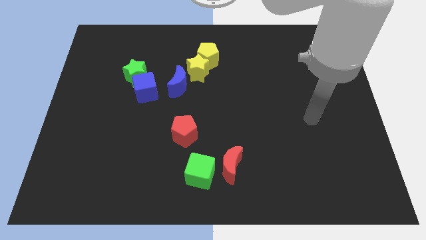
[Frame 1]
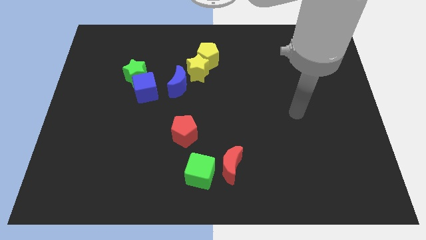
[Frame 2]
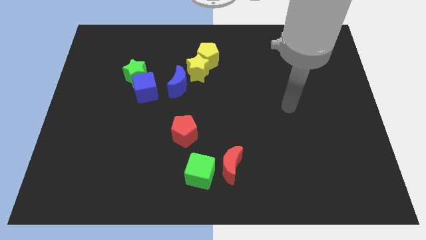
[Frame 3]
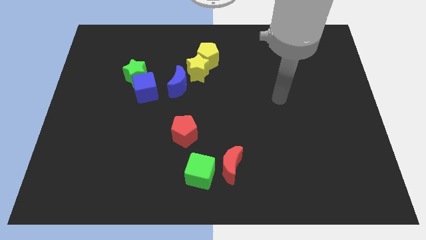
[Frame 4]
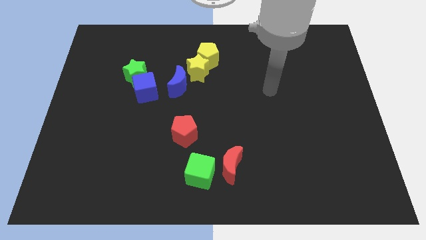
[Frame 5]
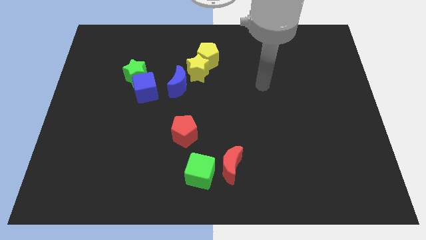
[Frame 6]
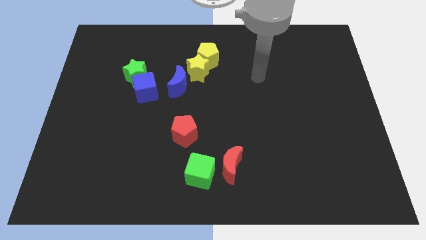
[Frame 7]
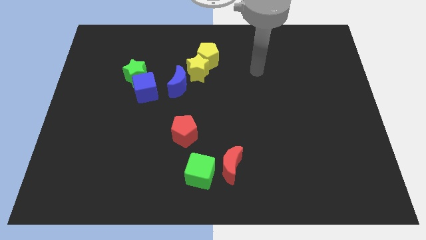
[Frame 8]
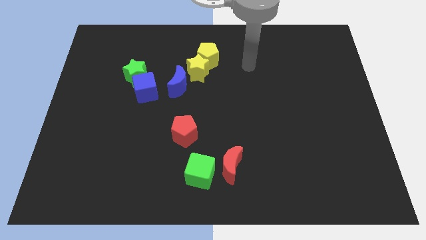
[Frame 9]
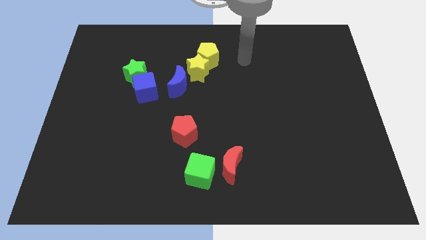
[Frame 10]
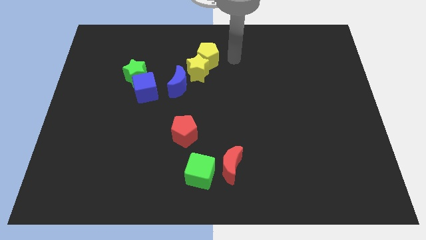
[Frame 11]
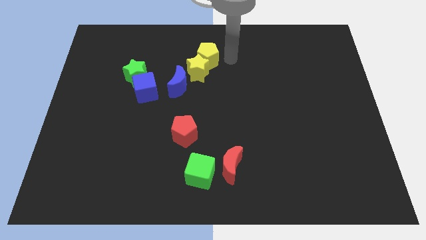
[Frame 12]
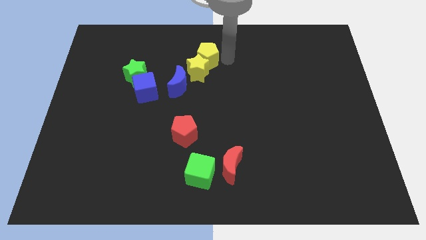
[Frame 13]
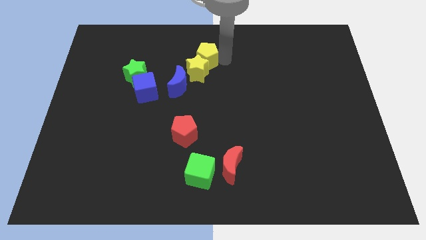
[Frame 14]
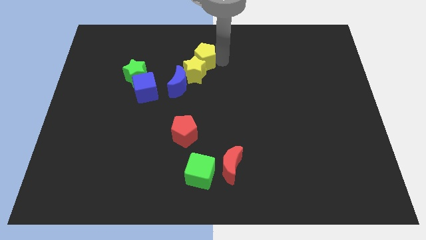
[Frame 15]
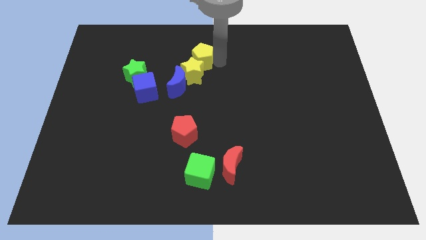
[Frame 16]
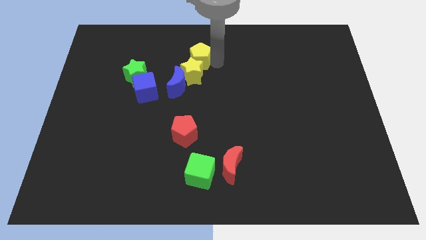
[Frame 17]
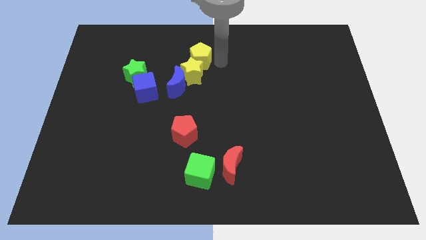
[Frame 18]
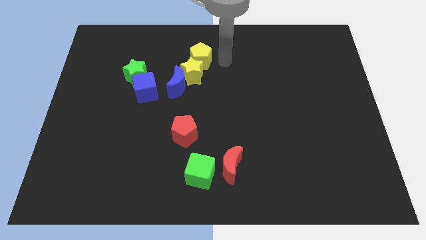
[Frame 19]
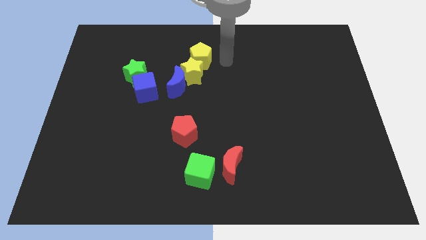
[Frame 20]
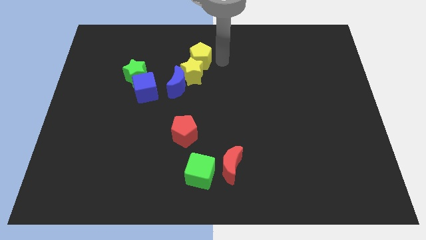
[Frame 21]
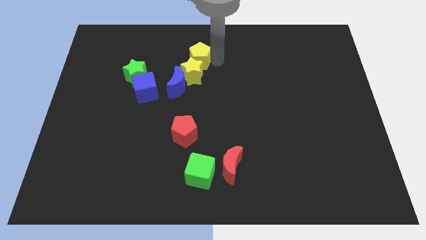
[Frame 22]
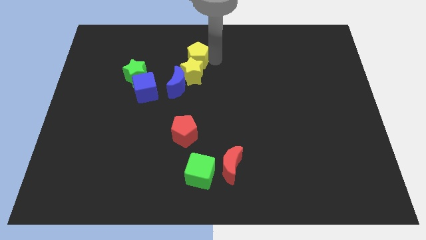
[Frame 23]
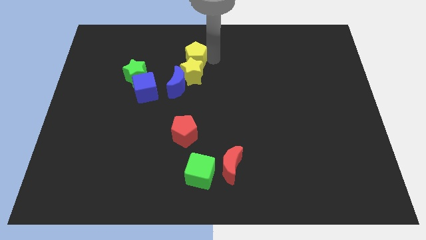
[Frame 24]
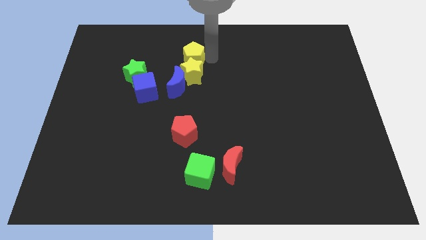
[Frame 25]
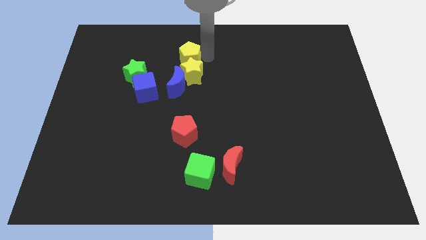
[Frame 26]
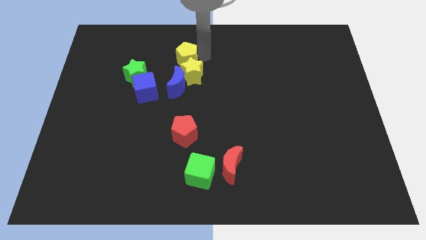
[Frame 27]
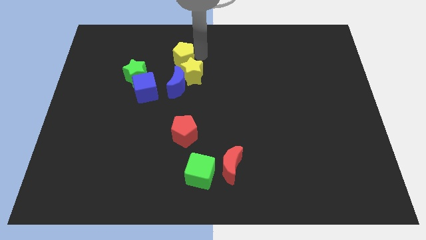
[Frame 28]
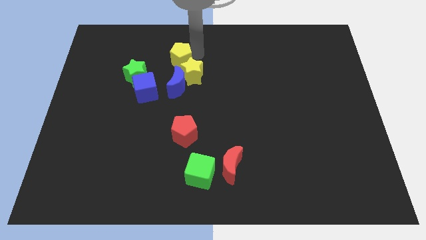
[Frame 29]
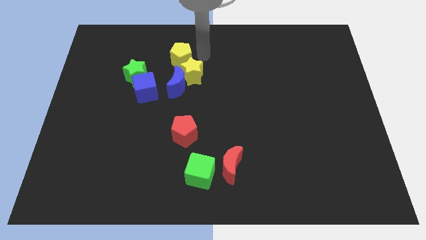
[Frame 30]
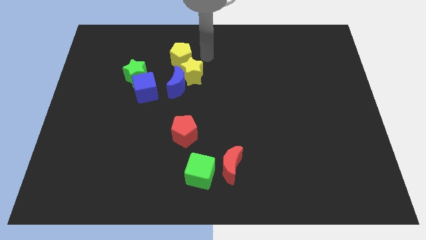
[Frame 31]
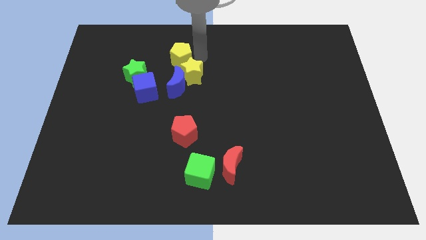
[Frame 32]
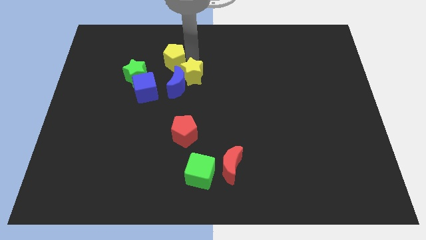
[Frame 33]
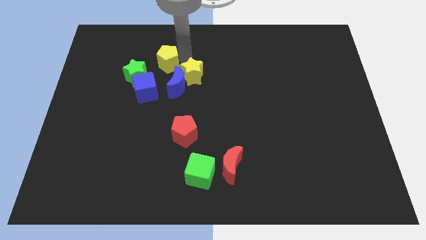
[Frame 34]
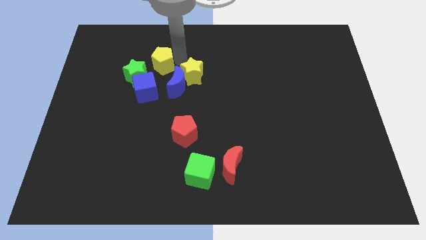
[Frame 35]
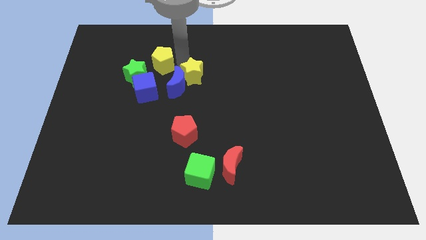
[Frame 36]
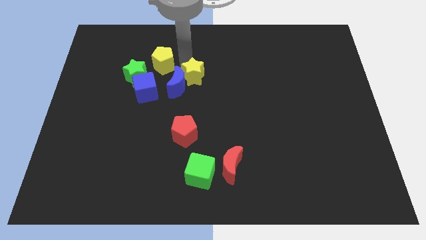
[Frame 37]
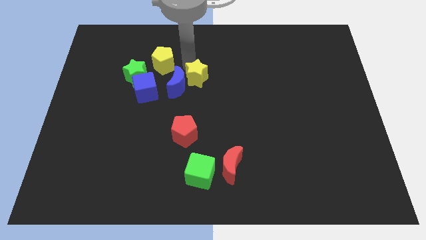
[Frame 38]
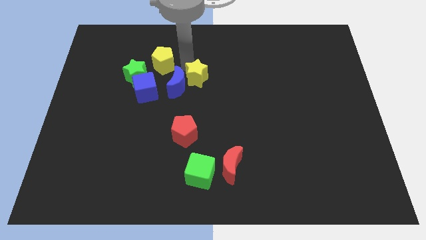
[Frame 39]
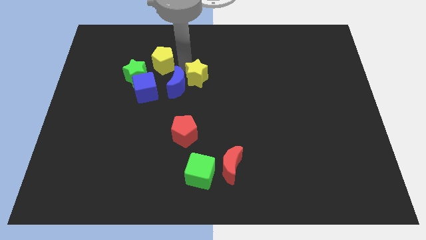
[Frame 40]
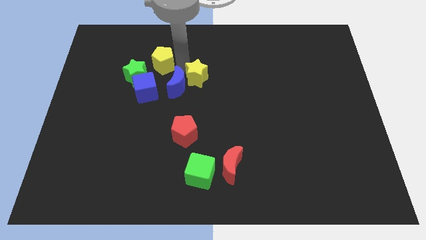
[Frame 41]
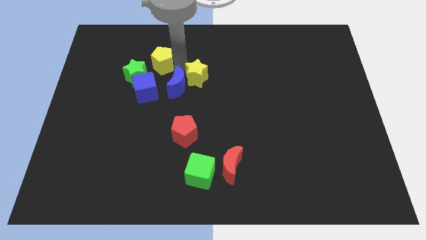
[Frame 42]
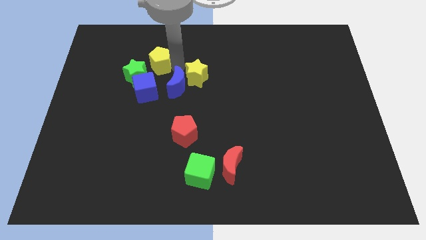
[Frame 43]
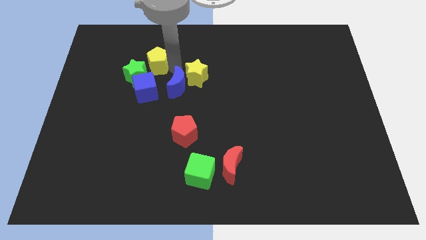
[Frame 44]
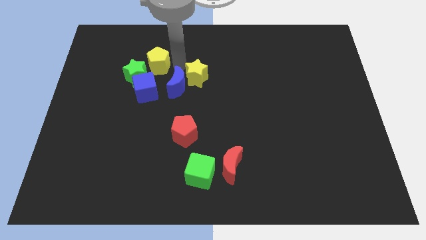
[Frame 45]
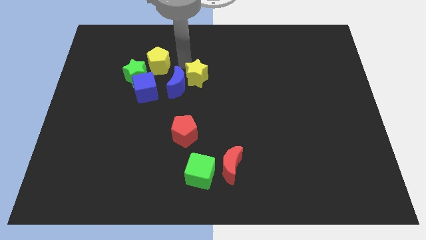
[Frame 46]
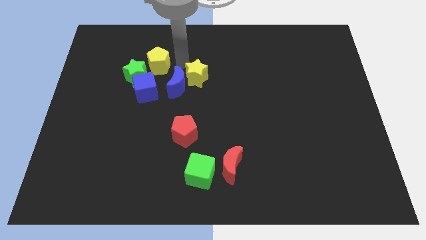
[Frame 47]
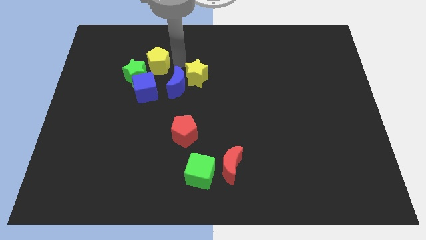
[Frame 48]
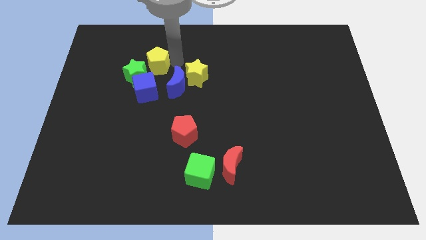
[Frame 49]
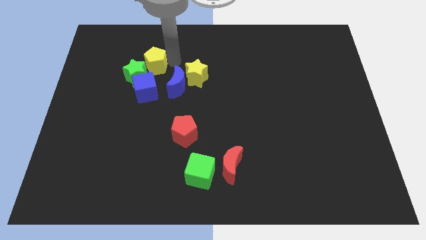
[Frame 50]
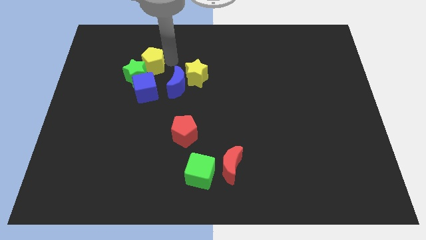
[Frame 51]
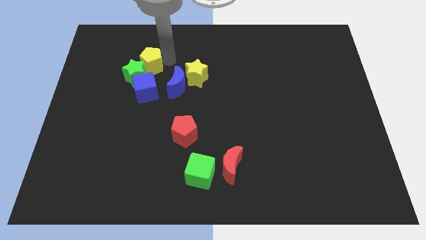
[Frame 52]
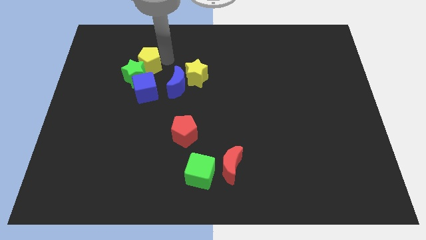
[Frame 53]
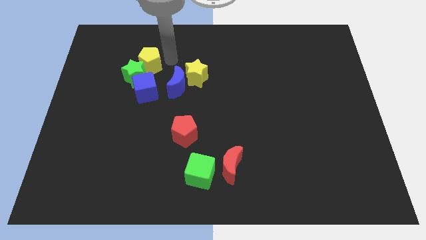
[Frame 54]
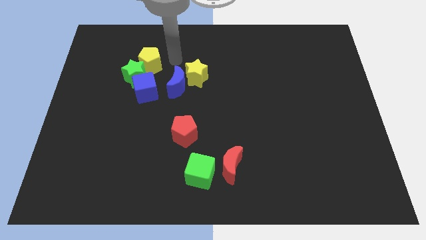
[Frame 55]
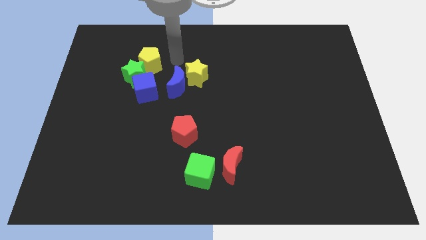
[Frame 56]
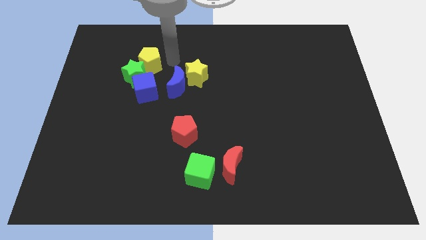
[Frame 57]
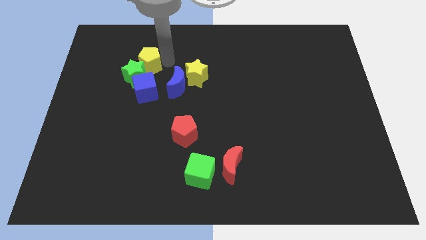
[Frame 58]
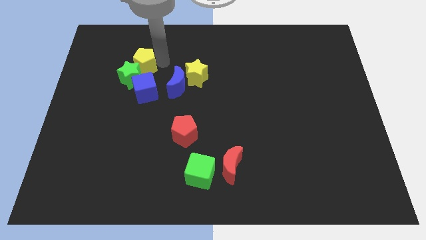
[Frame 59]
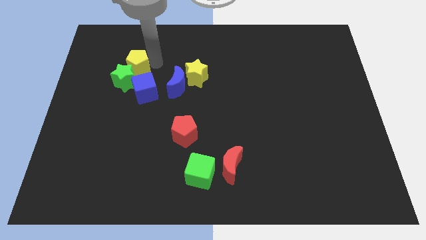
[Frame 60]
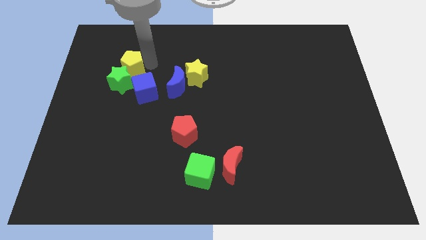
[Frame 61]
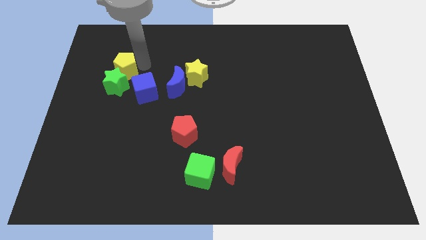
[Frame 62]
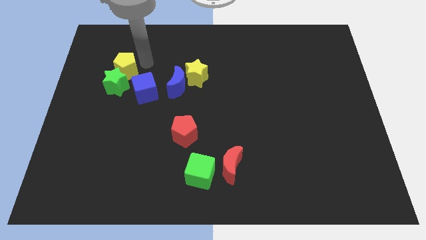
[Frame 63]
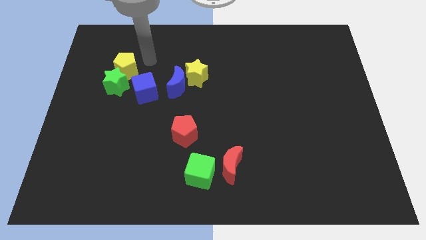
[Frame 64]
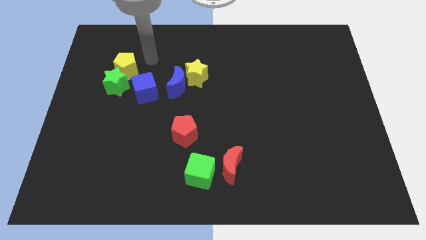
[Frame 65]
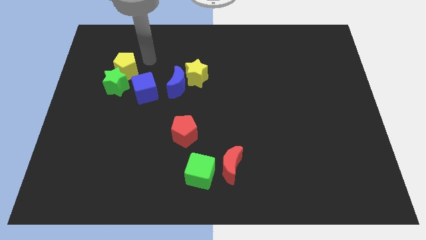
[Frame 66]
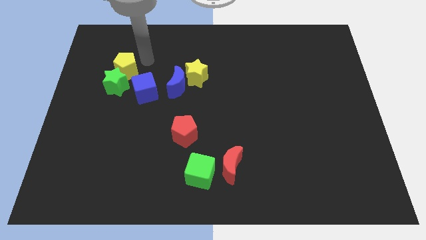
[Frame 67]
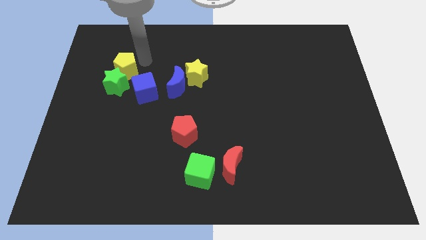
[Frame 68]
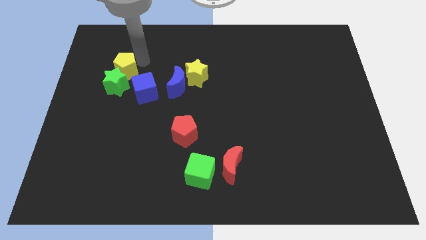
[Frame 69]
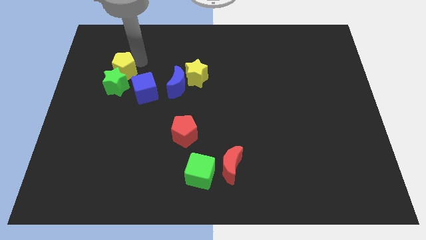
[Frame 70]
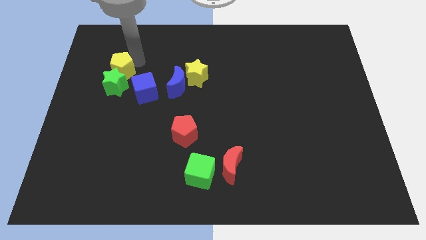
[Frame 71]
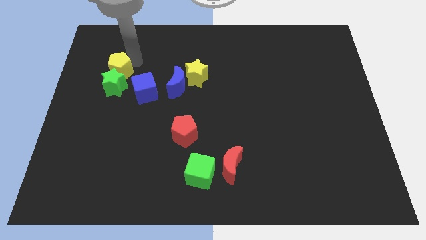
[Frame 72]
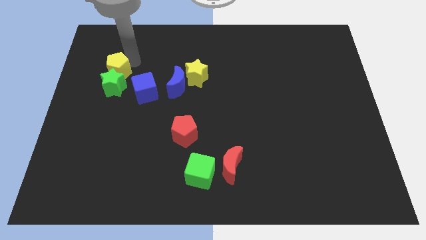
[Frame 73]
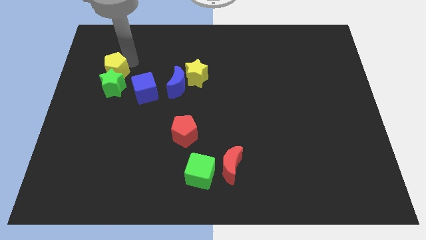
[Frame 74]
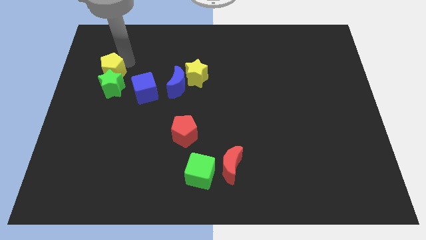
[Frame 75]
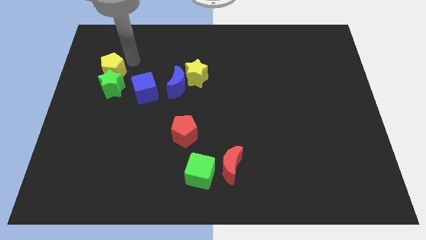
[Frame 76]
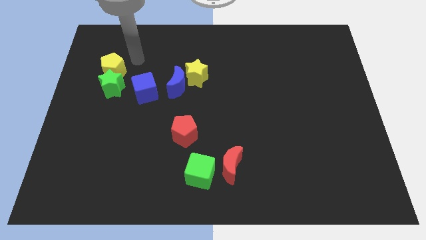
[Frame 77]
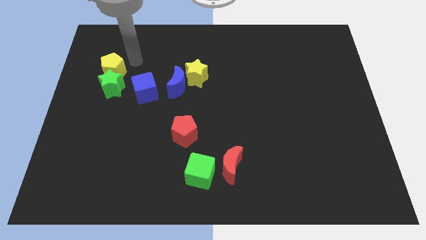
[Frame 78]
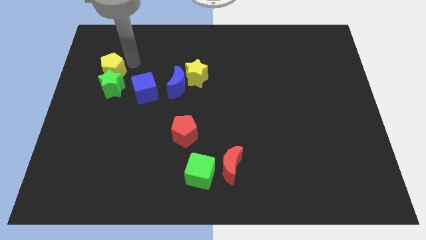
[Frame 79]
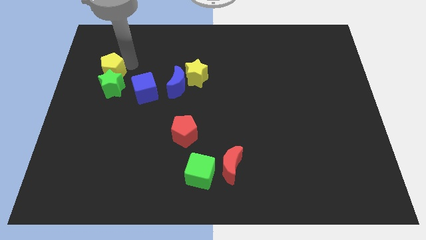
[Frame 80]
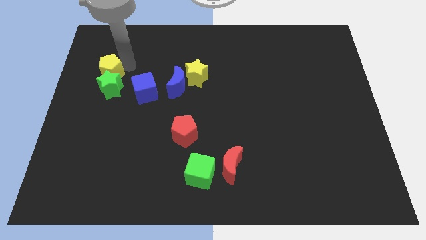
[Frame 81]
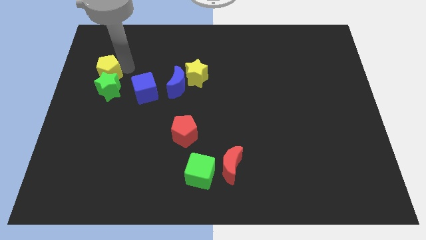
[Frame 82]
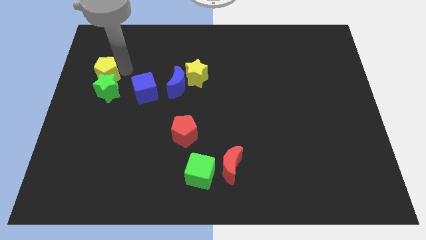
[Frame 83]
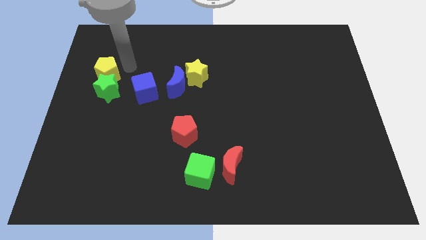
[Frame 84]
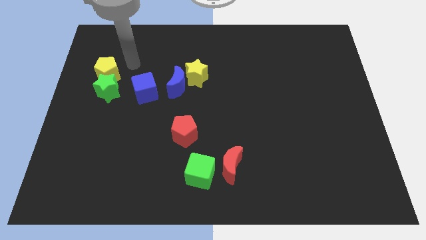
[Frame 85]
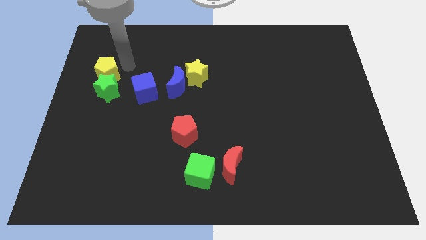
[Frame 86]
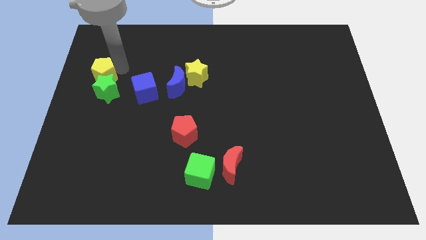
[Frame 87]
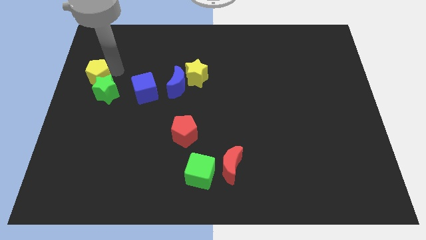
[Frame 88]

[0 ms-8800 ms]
put the yellow pentagon to the left side
